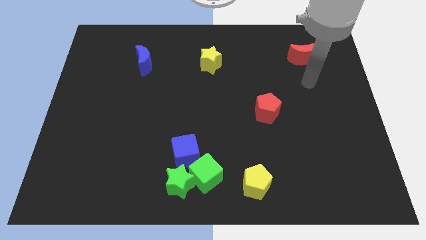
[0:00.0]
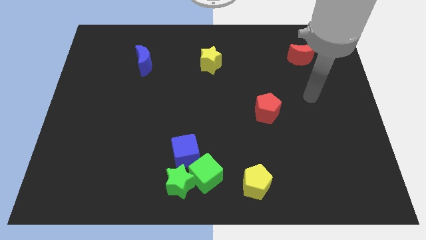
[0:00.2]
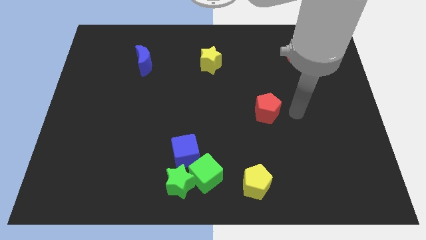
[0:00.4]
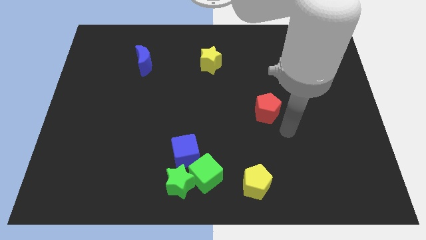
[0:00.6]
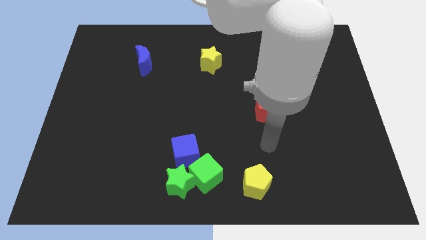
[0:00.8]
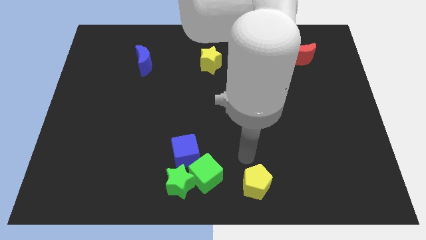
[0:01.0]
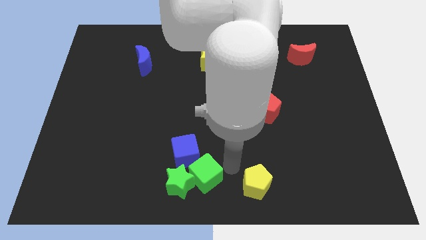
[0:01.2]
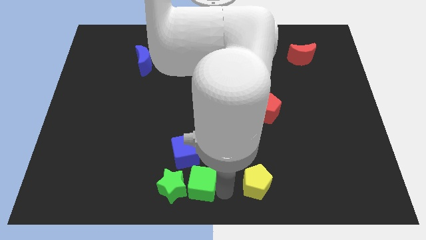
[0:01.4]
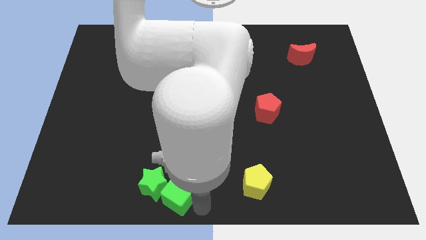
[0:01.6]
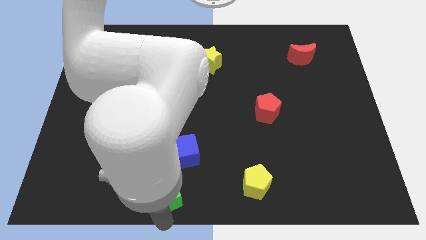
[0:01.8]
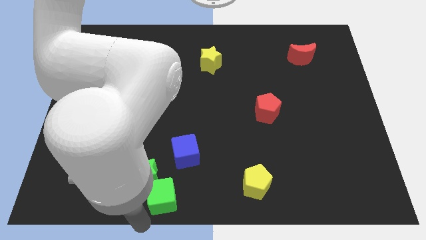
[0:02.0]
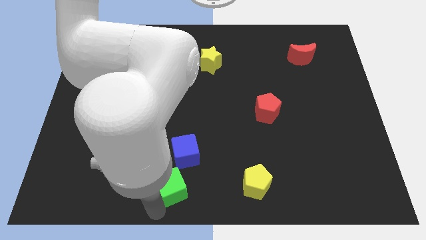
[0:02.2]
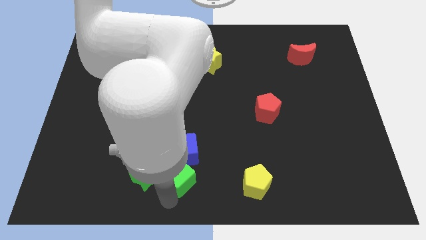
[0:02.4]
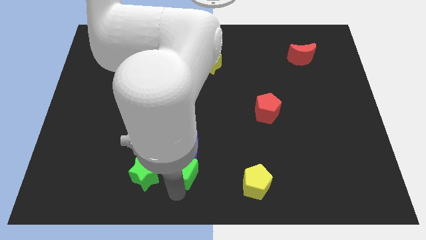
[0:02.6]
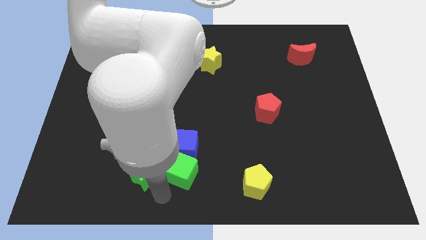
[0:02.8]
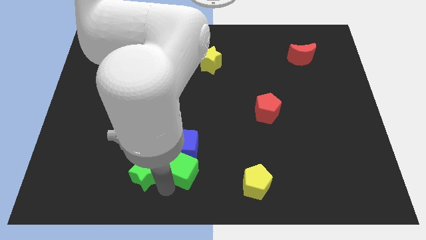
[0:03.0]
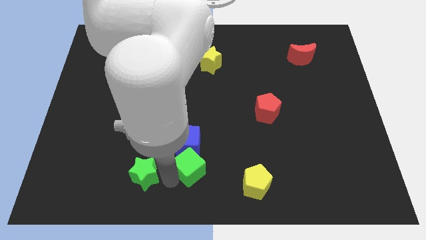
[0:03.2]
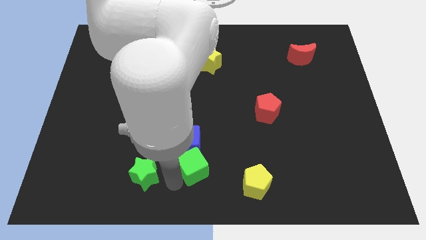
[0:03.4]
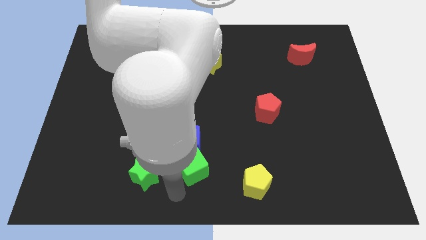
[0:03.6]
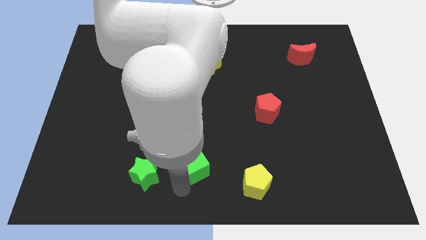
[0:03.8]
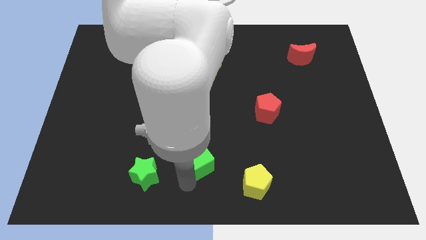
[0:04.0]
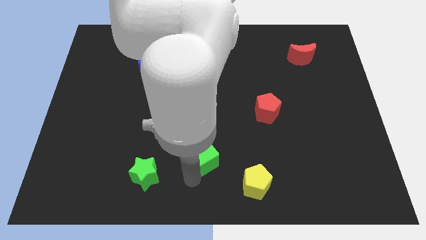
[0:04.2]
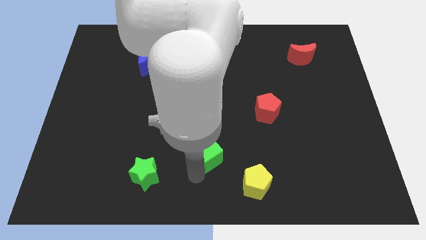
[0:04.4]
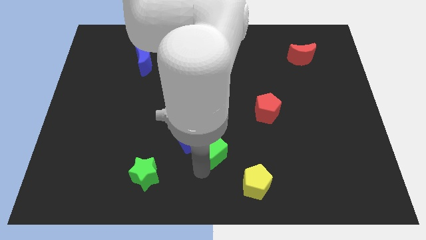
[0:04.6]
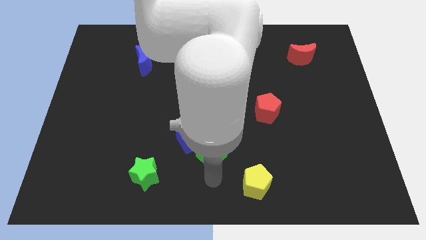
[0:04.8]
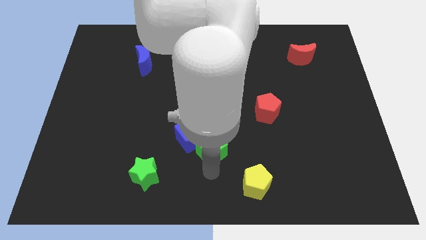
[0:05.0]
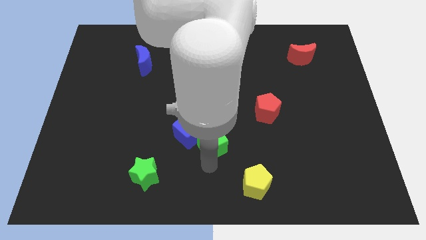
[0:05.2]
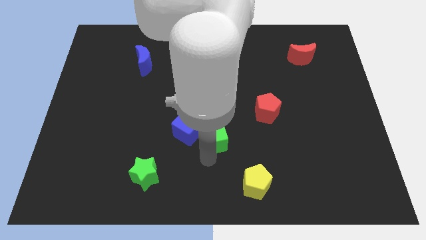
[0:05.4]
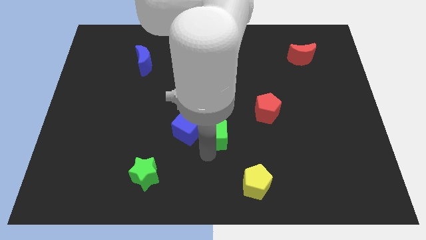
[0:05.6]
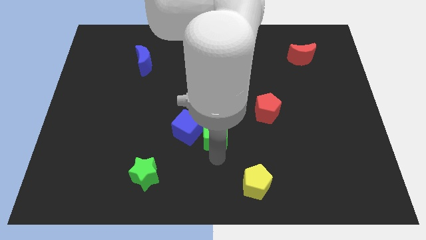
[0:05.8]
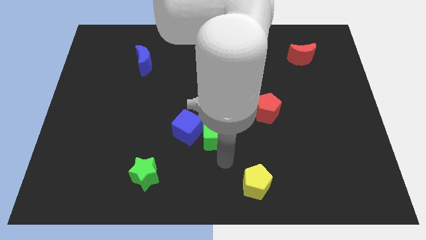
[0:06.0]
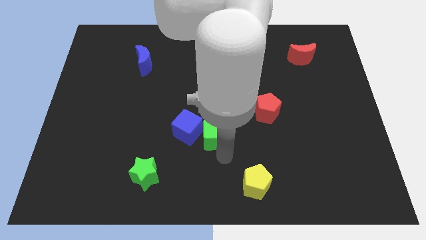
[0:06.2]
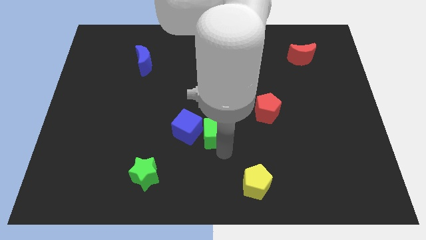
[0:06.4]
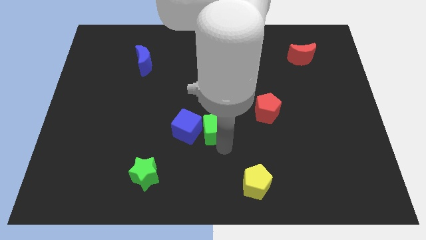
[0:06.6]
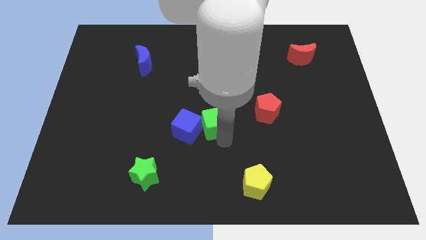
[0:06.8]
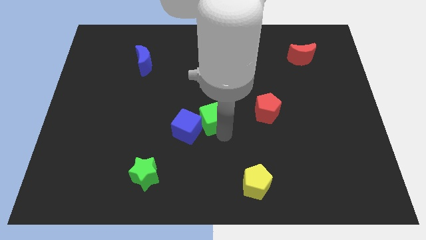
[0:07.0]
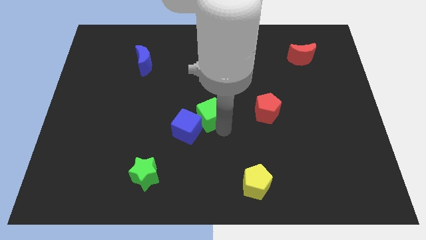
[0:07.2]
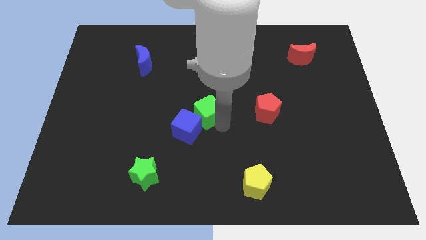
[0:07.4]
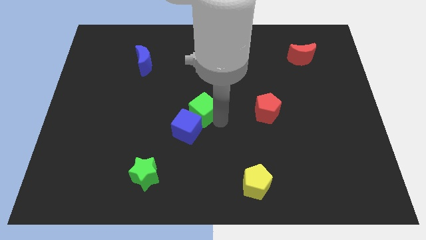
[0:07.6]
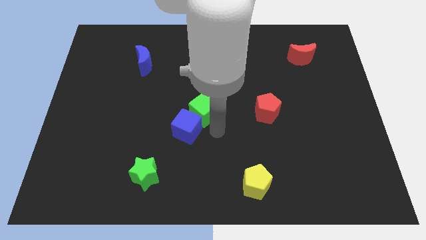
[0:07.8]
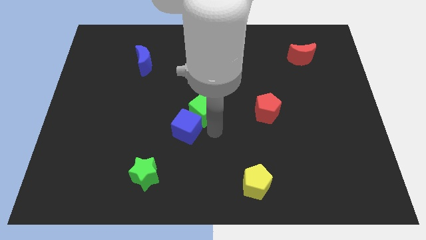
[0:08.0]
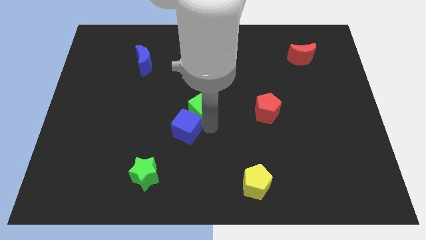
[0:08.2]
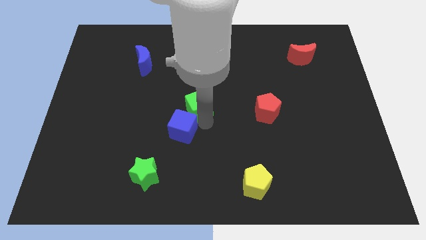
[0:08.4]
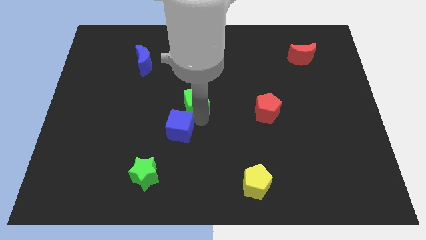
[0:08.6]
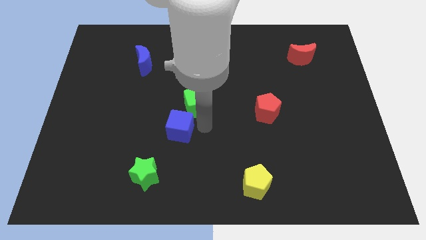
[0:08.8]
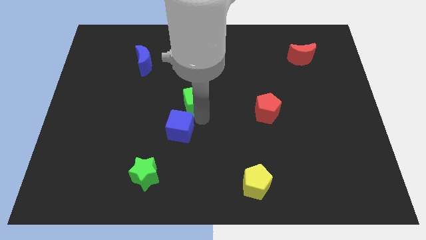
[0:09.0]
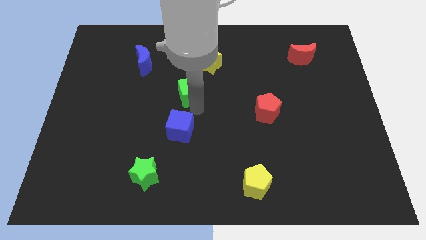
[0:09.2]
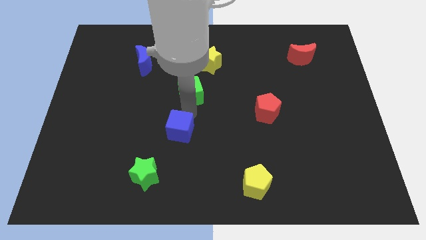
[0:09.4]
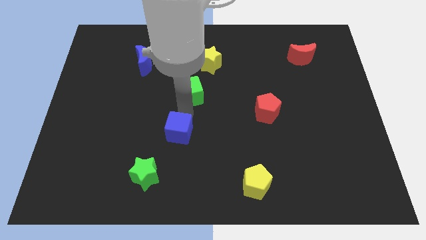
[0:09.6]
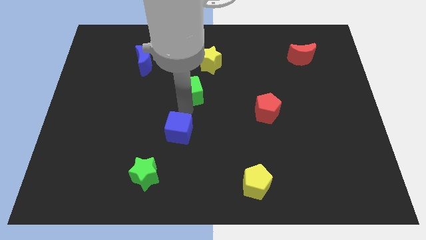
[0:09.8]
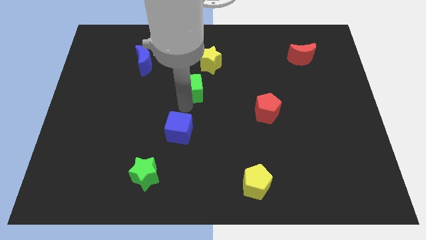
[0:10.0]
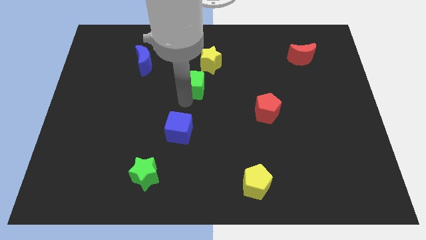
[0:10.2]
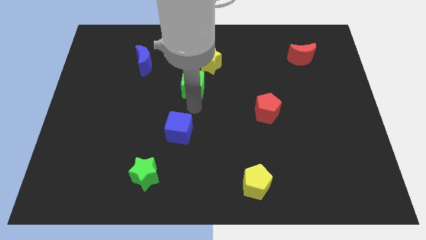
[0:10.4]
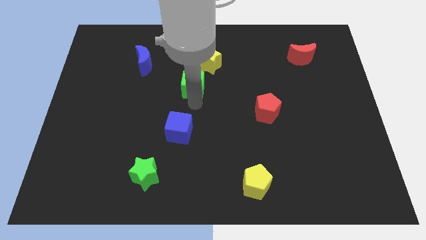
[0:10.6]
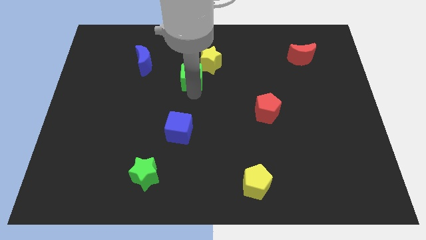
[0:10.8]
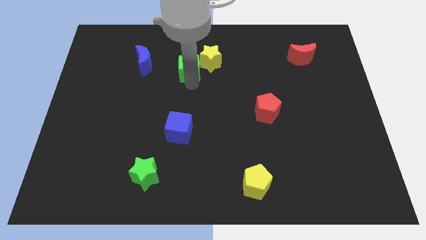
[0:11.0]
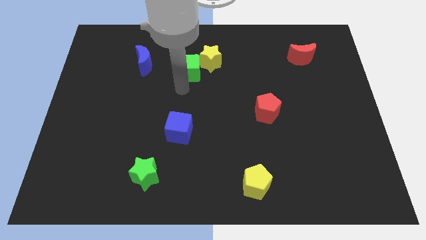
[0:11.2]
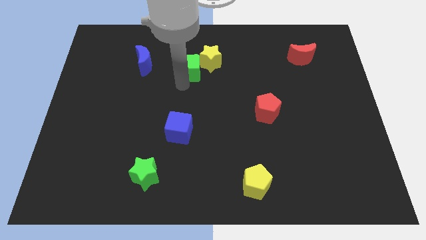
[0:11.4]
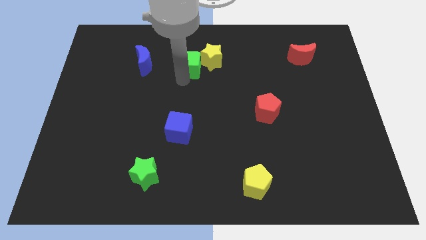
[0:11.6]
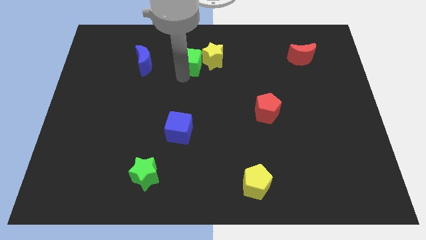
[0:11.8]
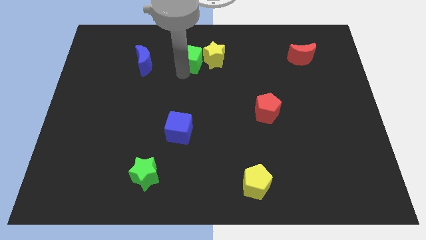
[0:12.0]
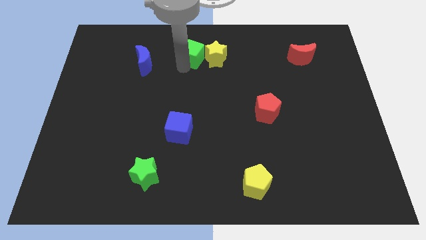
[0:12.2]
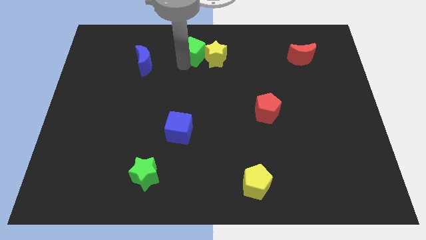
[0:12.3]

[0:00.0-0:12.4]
push the green cube to the towards your base

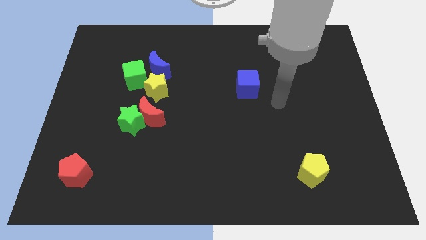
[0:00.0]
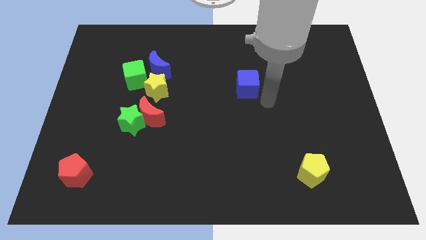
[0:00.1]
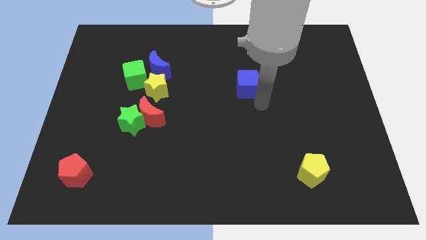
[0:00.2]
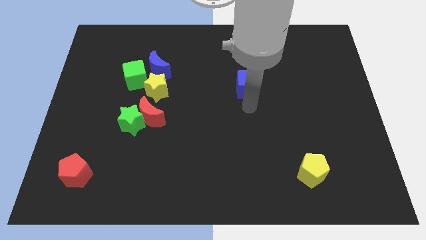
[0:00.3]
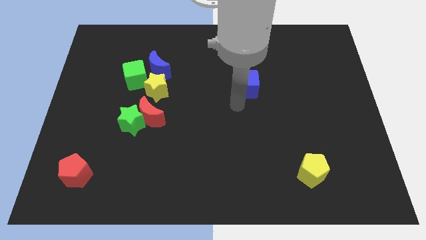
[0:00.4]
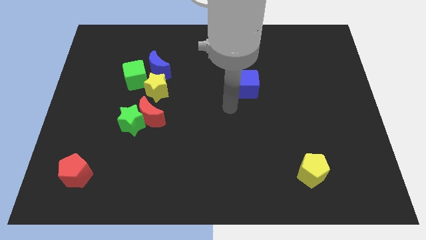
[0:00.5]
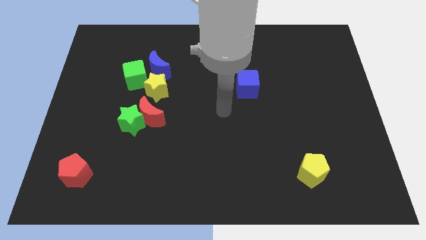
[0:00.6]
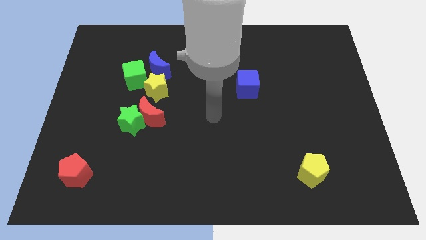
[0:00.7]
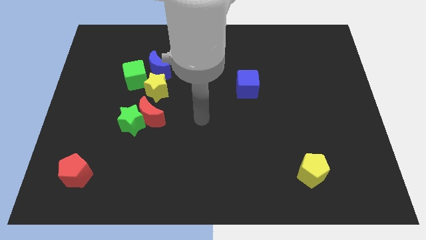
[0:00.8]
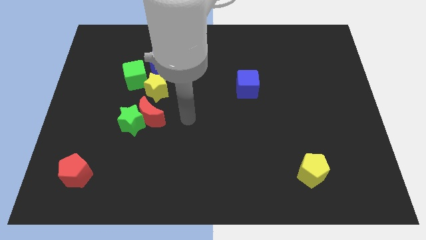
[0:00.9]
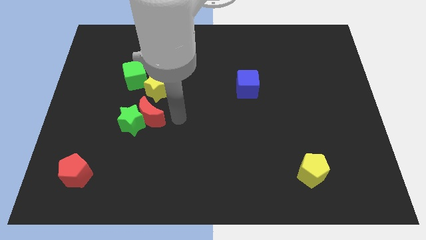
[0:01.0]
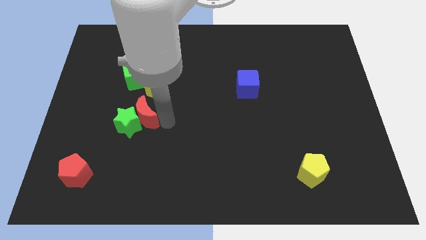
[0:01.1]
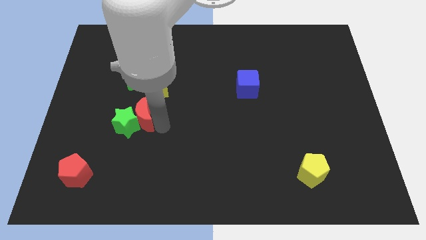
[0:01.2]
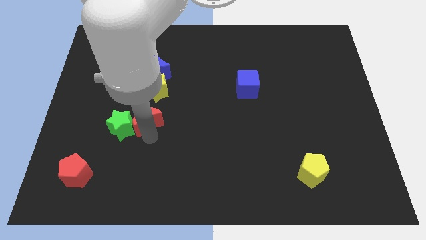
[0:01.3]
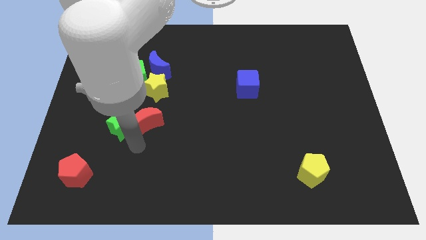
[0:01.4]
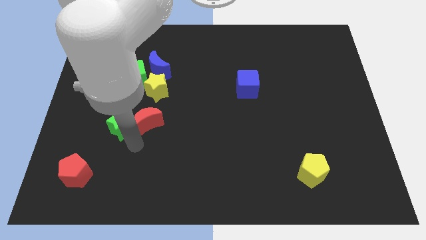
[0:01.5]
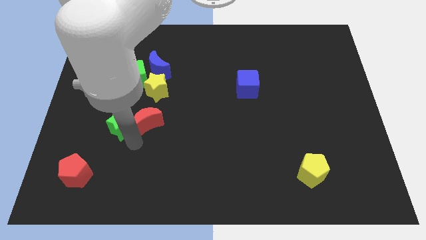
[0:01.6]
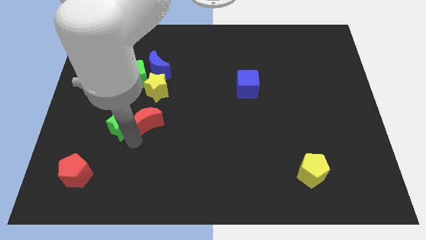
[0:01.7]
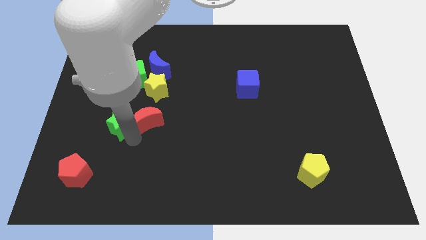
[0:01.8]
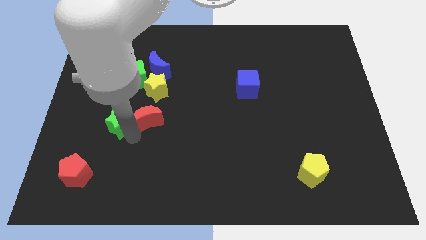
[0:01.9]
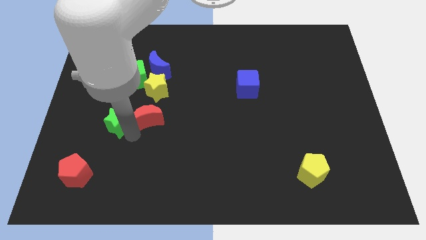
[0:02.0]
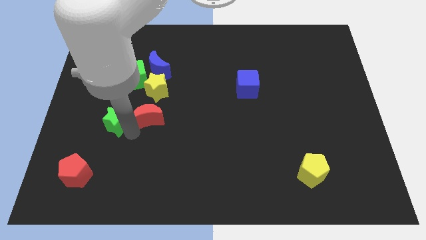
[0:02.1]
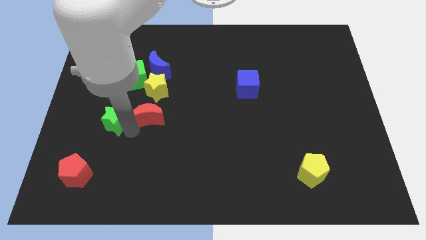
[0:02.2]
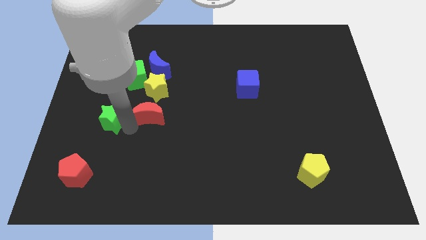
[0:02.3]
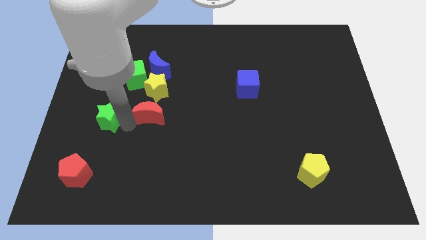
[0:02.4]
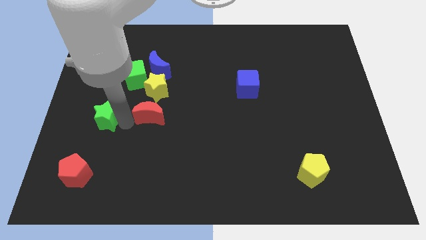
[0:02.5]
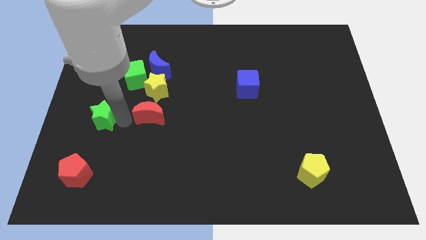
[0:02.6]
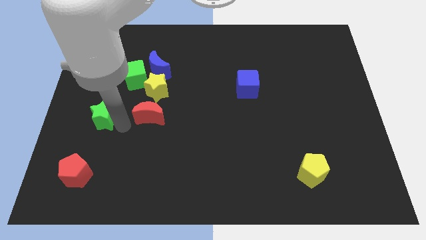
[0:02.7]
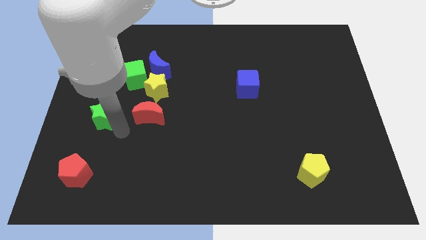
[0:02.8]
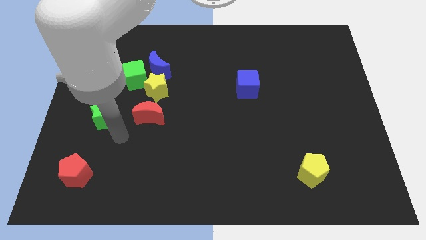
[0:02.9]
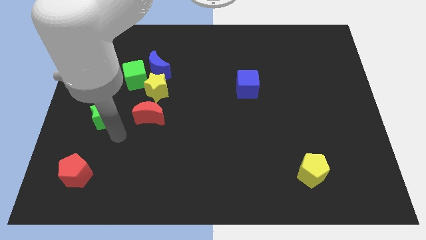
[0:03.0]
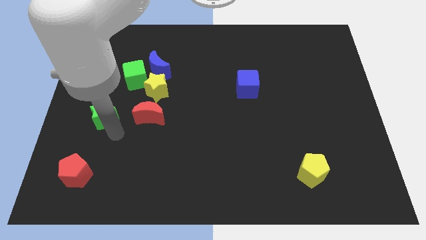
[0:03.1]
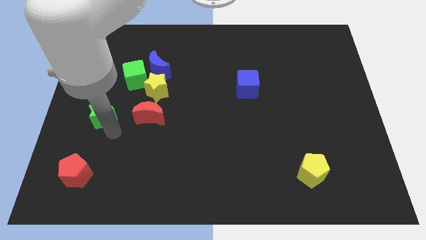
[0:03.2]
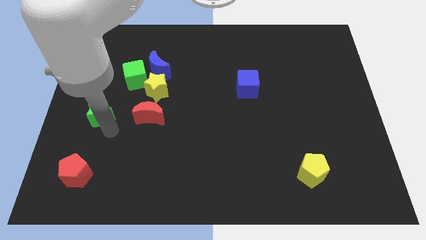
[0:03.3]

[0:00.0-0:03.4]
push the green star to the left side
